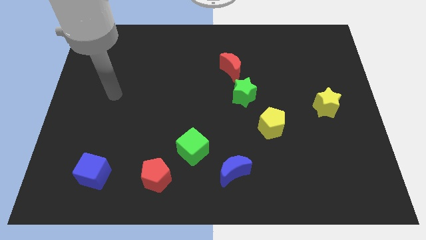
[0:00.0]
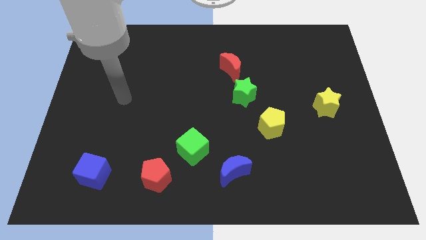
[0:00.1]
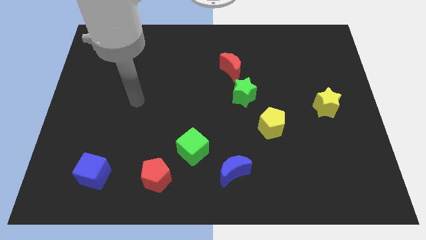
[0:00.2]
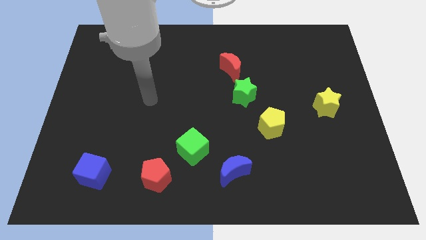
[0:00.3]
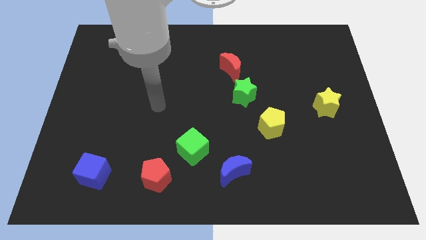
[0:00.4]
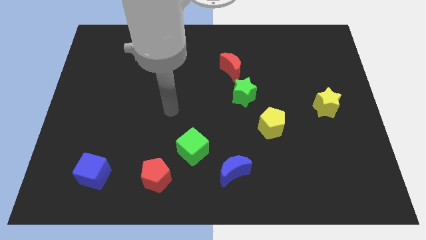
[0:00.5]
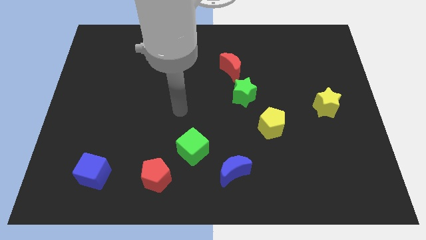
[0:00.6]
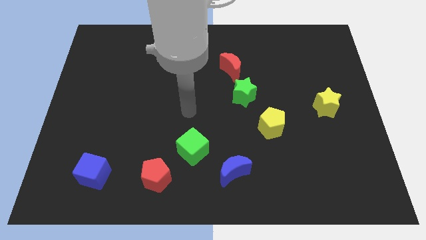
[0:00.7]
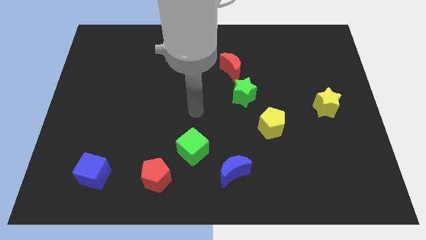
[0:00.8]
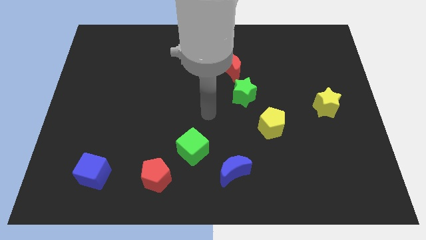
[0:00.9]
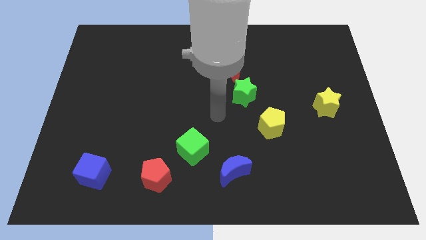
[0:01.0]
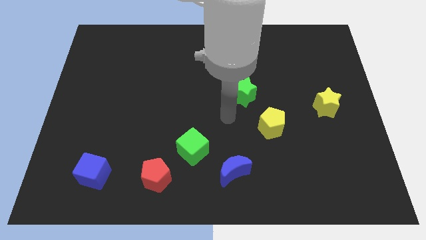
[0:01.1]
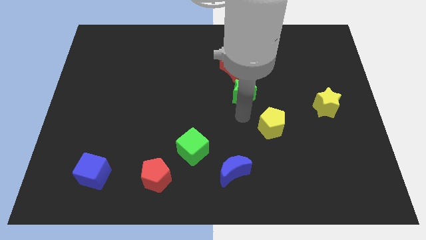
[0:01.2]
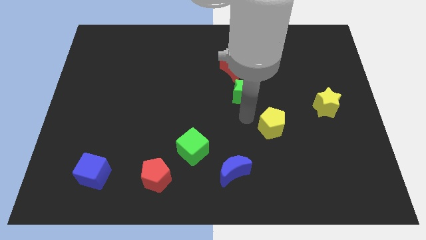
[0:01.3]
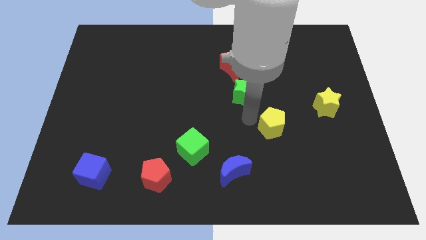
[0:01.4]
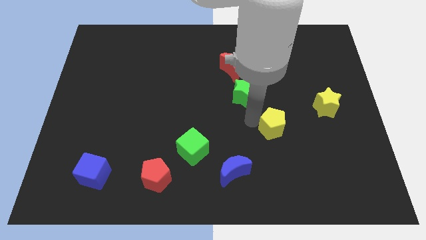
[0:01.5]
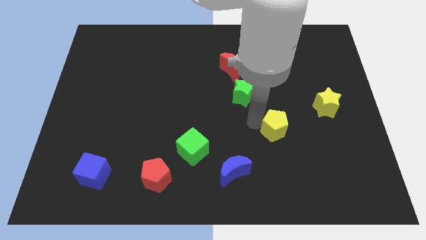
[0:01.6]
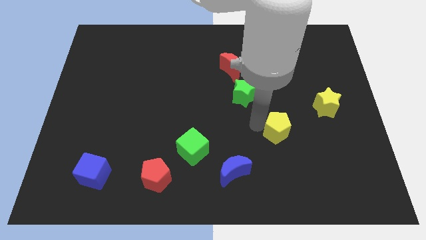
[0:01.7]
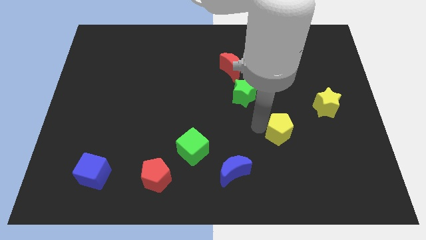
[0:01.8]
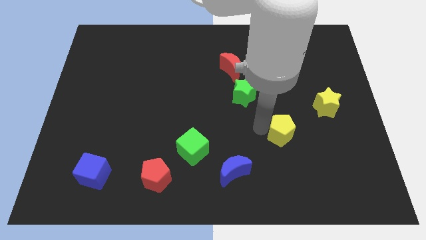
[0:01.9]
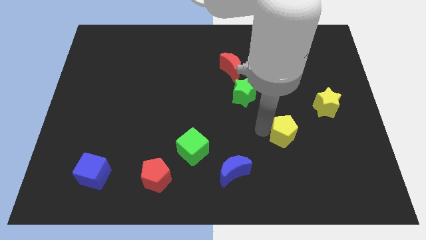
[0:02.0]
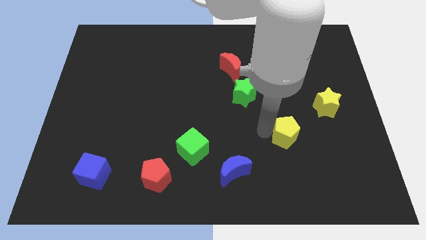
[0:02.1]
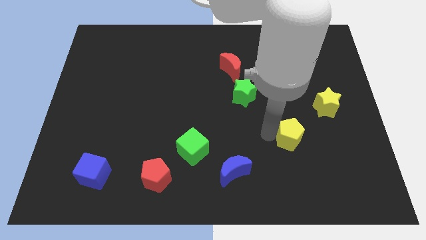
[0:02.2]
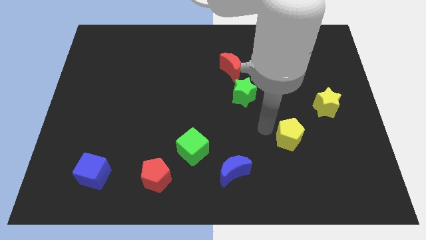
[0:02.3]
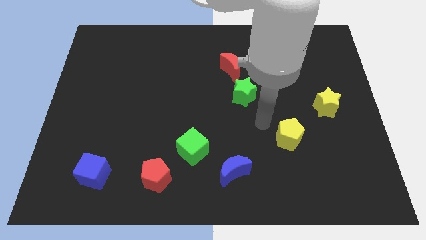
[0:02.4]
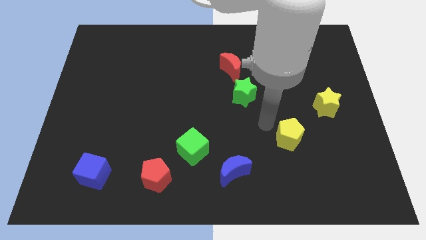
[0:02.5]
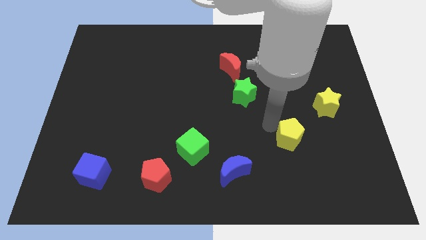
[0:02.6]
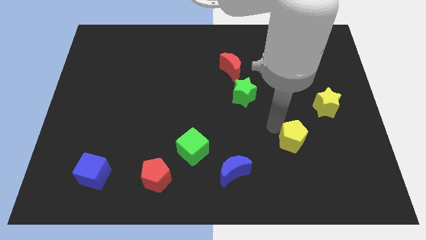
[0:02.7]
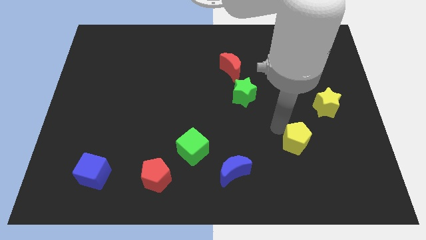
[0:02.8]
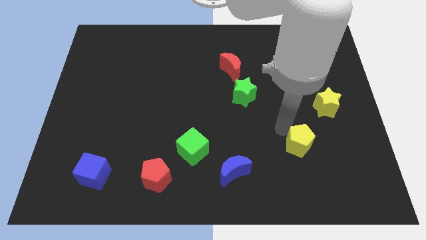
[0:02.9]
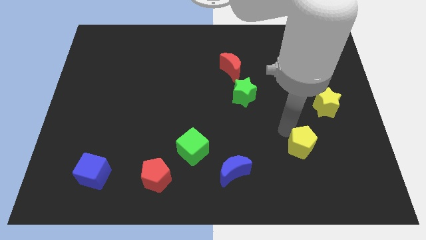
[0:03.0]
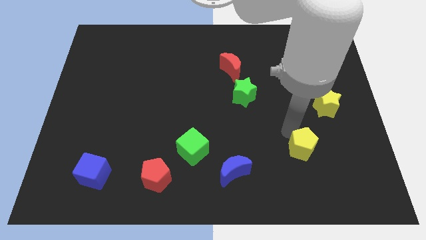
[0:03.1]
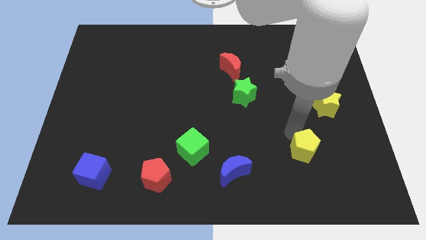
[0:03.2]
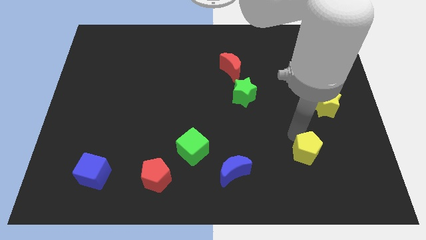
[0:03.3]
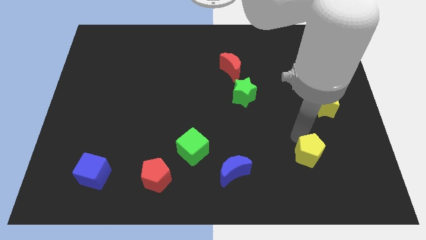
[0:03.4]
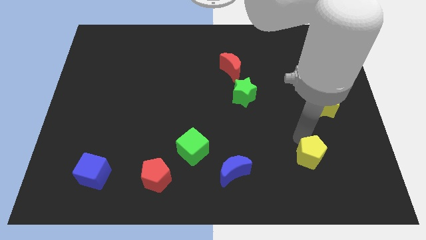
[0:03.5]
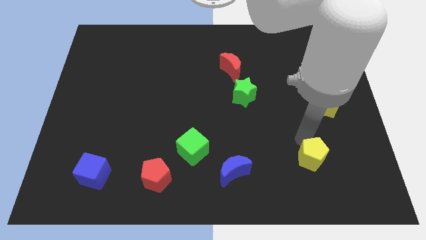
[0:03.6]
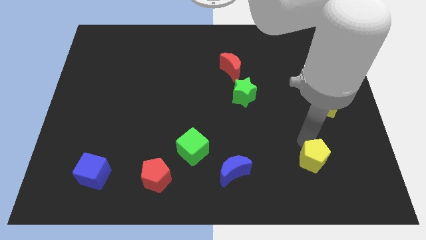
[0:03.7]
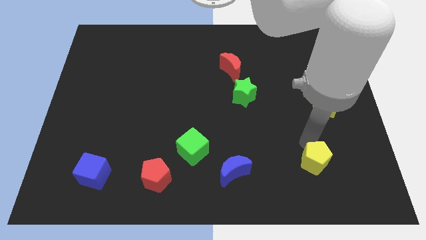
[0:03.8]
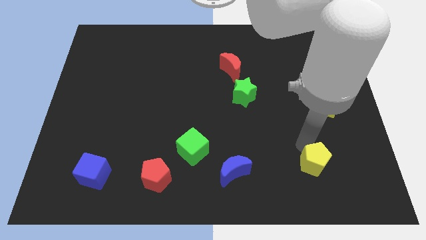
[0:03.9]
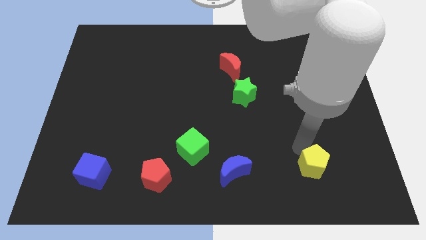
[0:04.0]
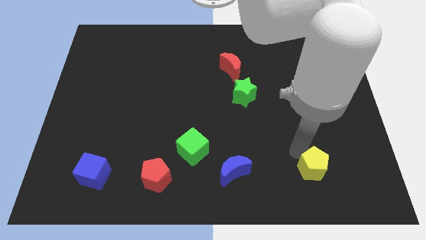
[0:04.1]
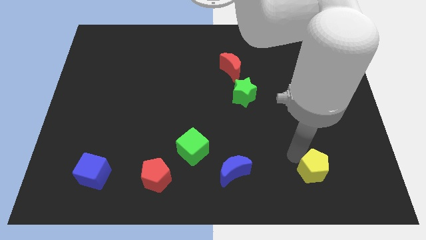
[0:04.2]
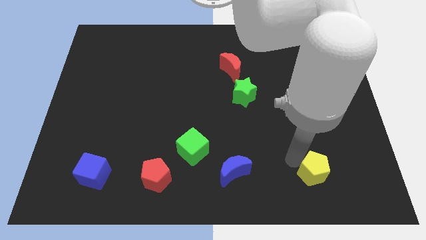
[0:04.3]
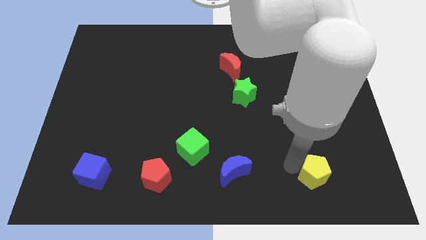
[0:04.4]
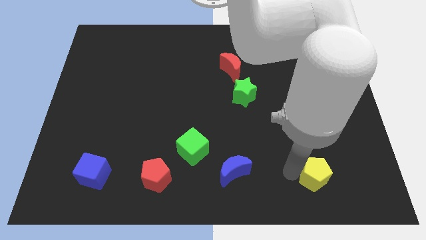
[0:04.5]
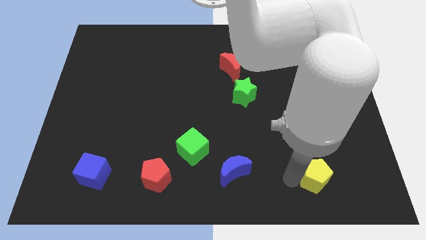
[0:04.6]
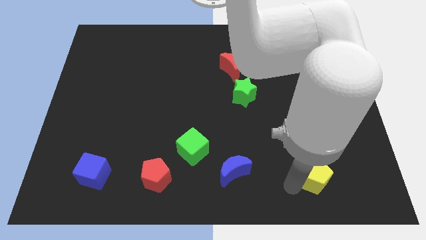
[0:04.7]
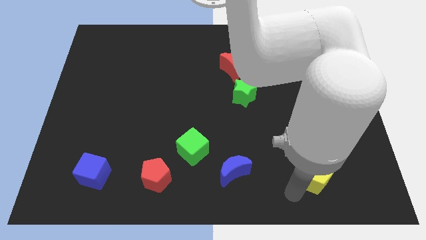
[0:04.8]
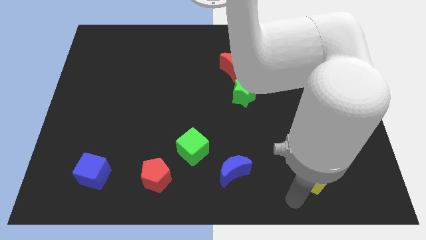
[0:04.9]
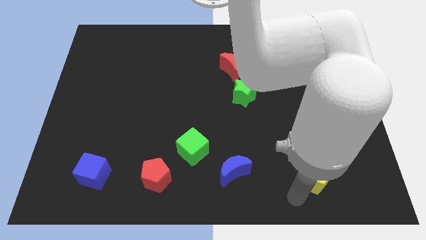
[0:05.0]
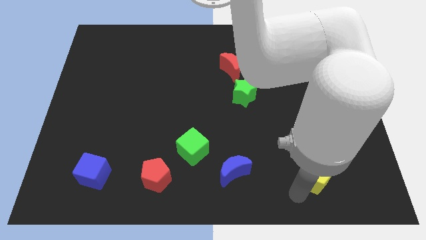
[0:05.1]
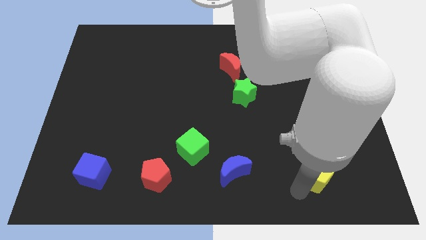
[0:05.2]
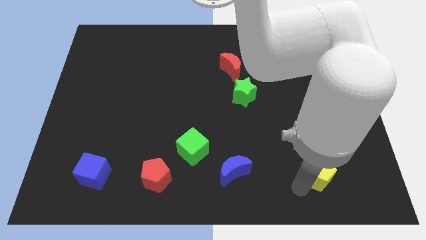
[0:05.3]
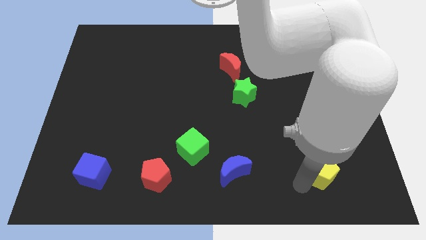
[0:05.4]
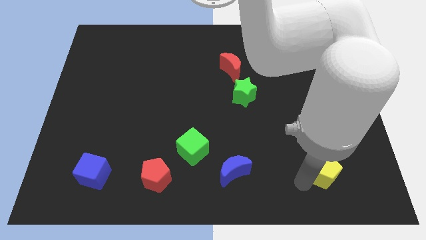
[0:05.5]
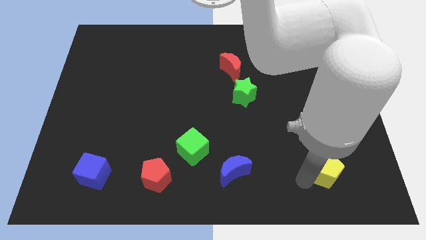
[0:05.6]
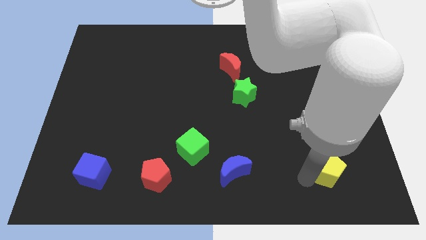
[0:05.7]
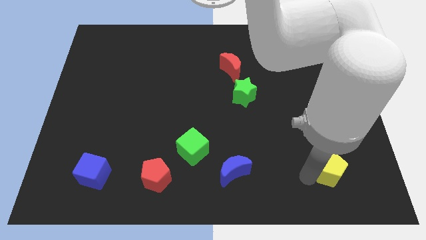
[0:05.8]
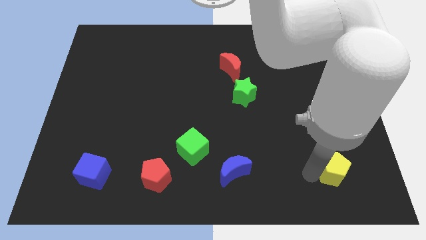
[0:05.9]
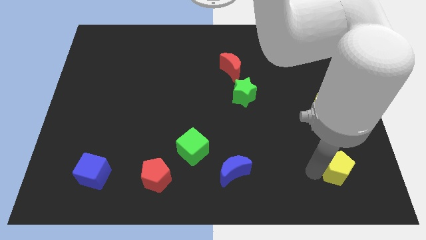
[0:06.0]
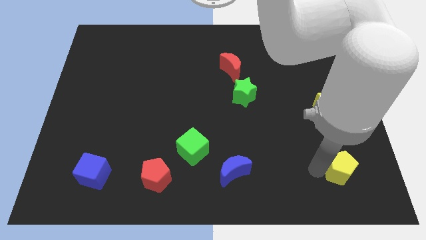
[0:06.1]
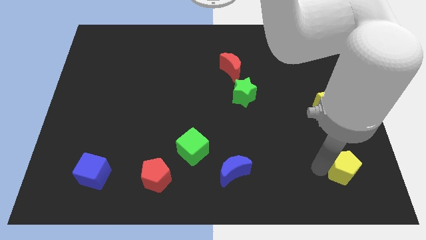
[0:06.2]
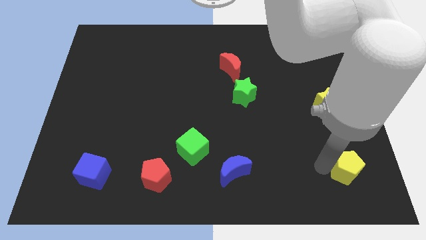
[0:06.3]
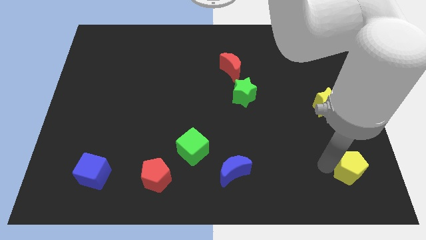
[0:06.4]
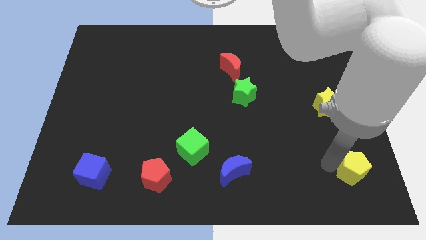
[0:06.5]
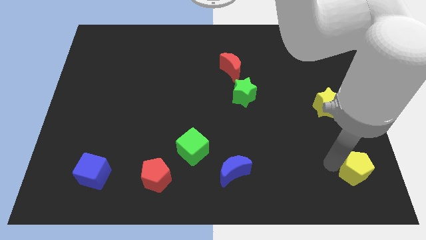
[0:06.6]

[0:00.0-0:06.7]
move the yellow pentagon to the bottom right
